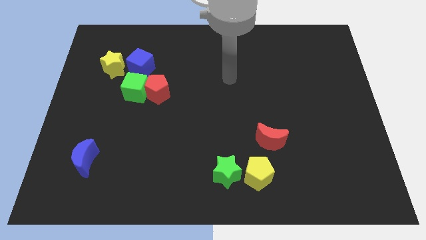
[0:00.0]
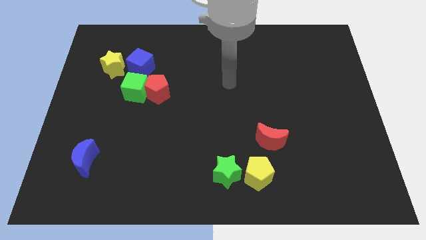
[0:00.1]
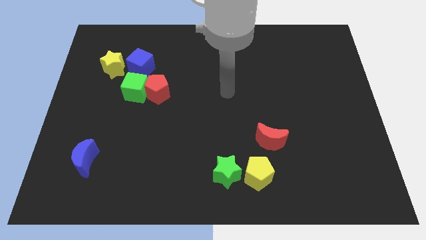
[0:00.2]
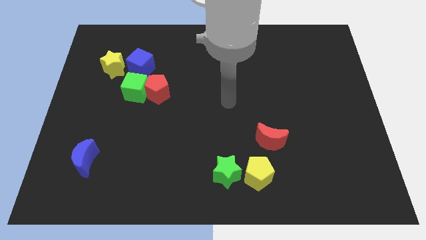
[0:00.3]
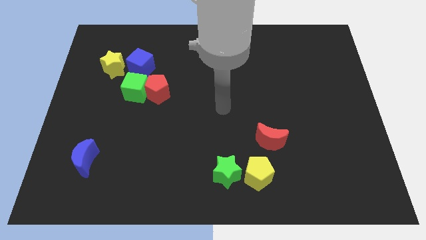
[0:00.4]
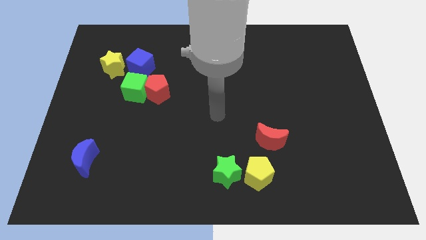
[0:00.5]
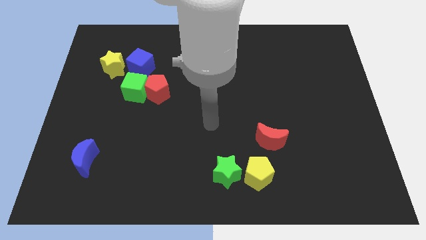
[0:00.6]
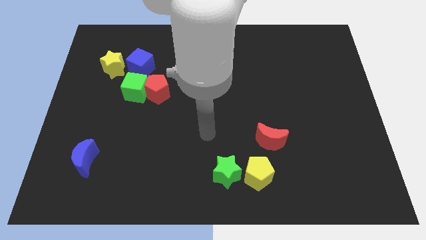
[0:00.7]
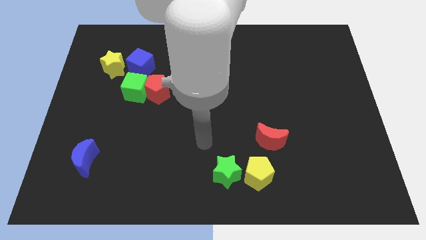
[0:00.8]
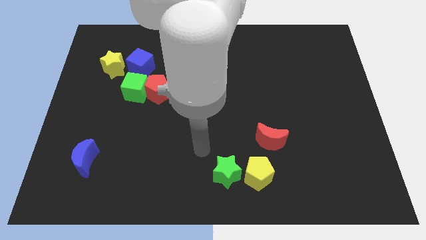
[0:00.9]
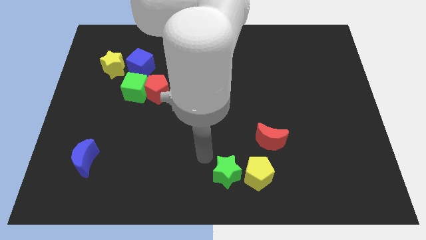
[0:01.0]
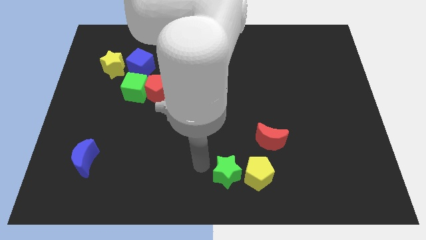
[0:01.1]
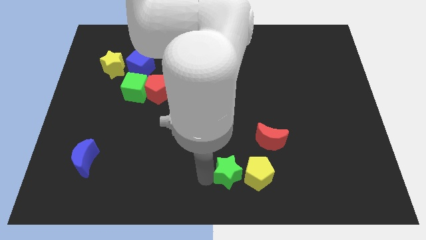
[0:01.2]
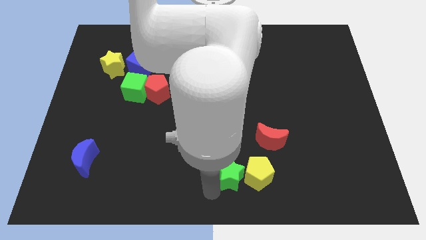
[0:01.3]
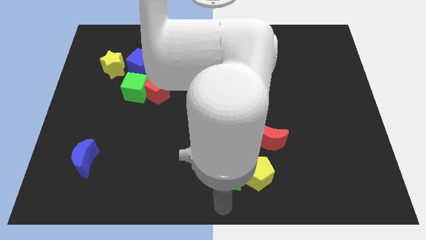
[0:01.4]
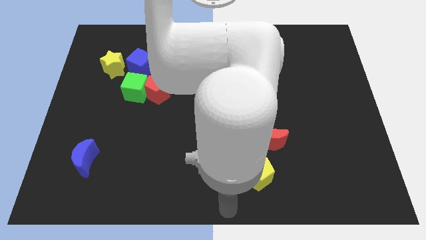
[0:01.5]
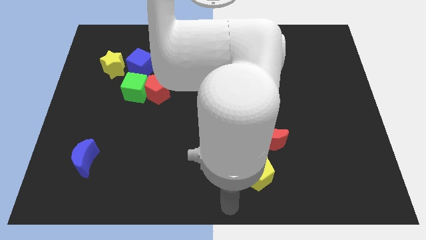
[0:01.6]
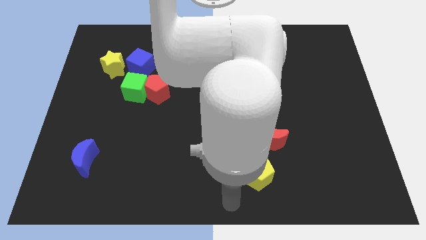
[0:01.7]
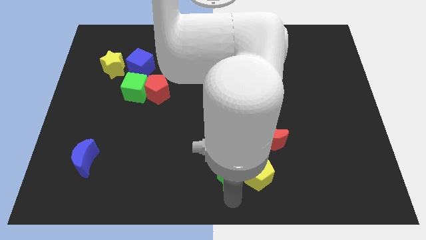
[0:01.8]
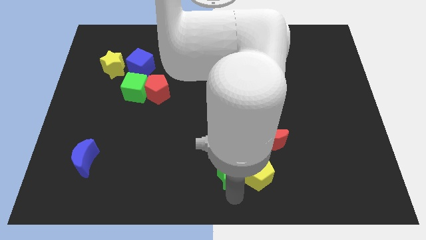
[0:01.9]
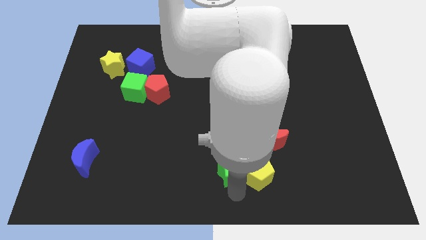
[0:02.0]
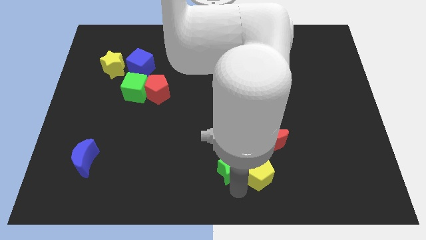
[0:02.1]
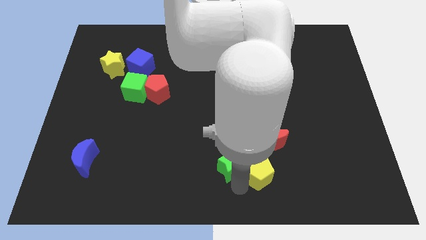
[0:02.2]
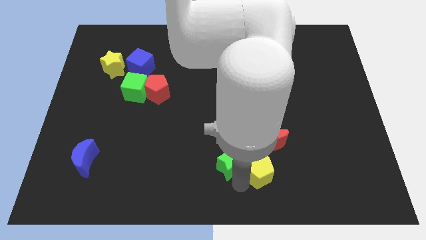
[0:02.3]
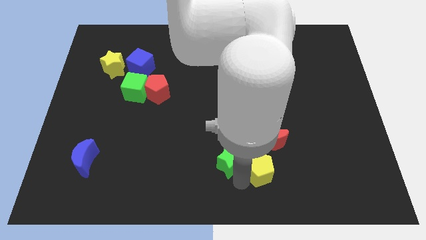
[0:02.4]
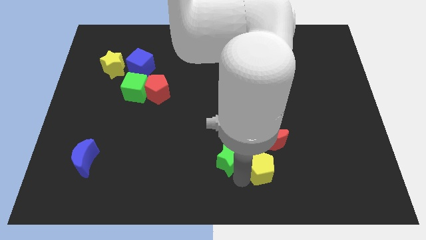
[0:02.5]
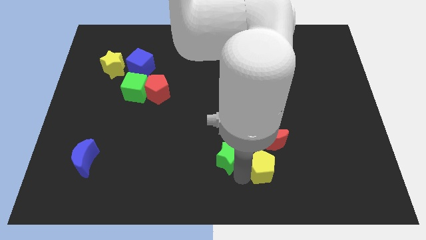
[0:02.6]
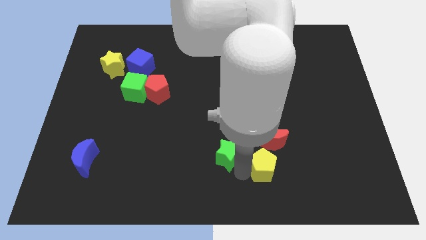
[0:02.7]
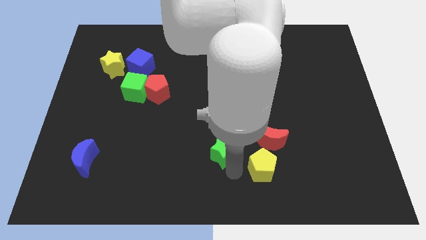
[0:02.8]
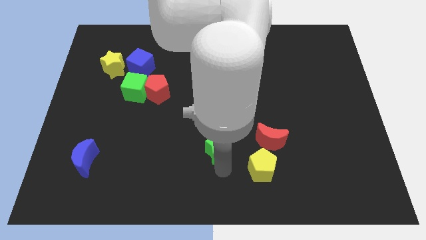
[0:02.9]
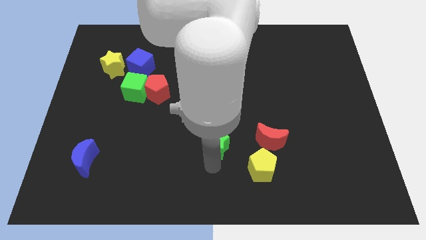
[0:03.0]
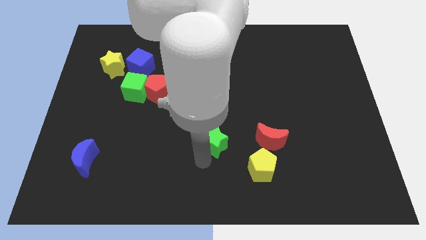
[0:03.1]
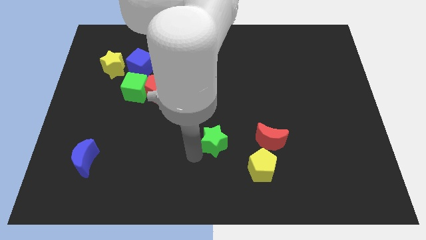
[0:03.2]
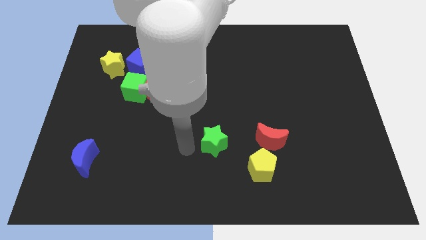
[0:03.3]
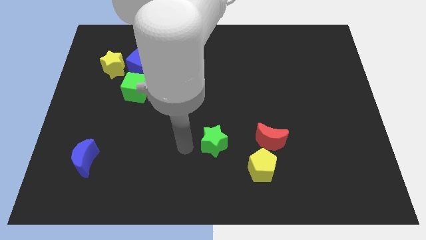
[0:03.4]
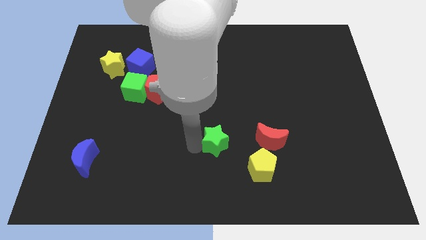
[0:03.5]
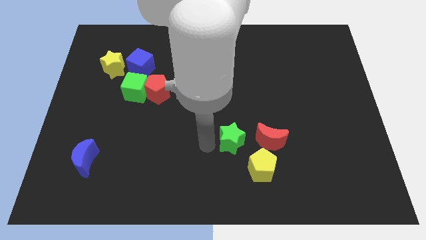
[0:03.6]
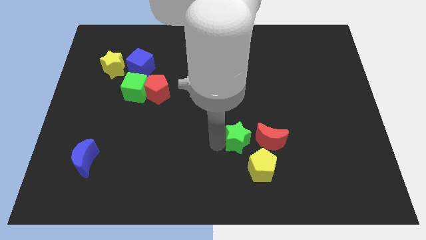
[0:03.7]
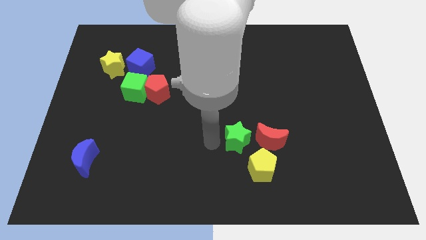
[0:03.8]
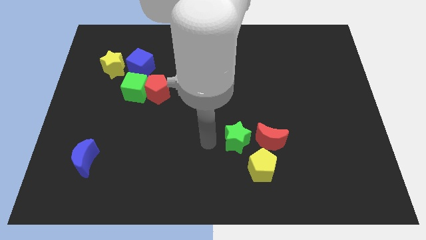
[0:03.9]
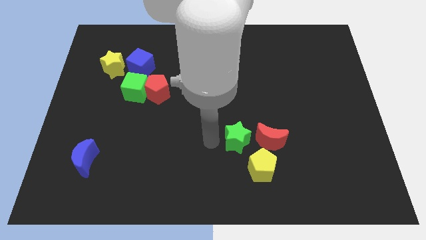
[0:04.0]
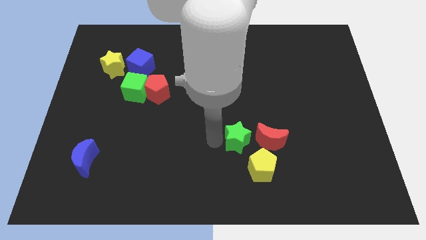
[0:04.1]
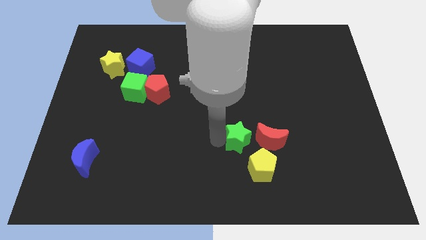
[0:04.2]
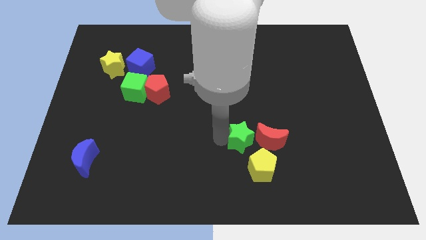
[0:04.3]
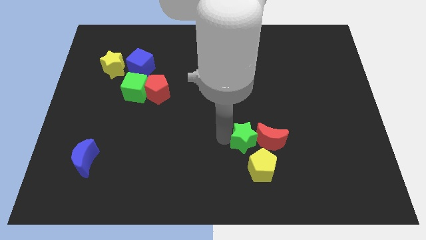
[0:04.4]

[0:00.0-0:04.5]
slide the green star close to the red moon

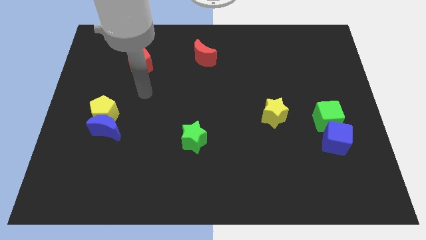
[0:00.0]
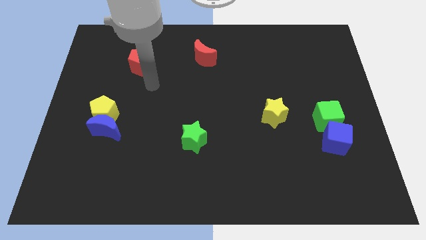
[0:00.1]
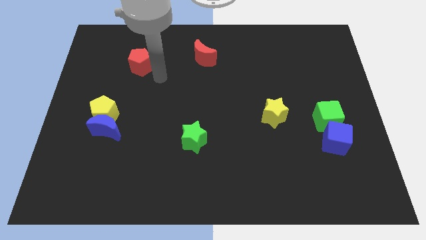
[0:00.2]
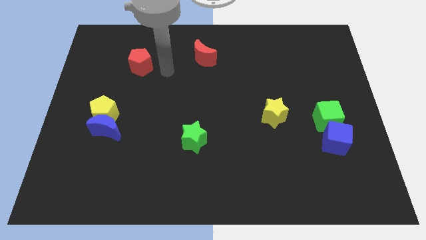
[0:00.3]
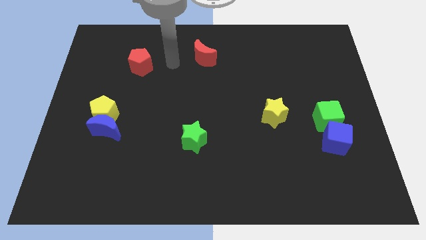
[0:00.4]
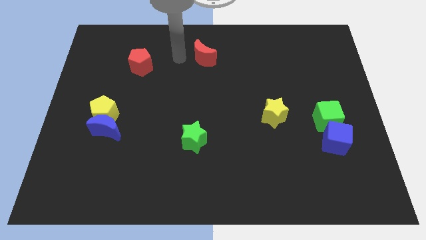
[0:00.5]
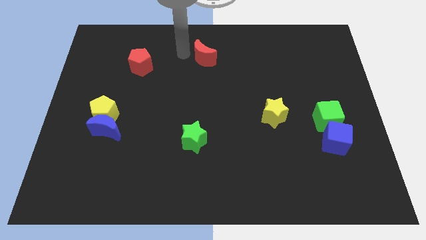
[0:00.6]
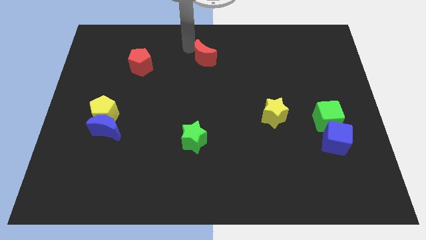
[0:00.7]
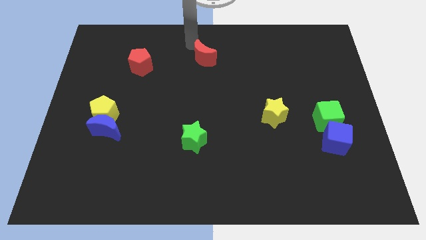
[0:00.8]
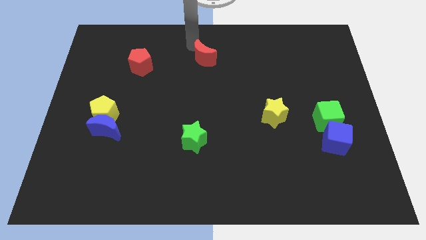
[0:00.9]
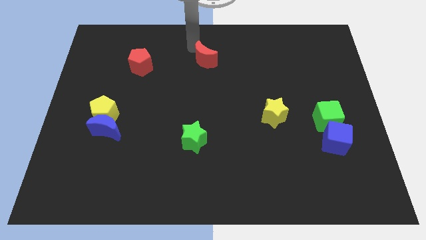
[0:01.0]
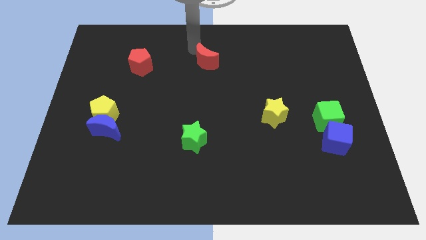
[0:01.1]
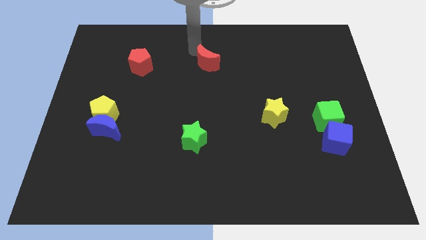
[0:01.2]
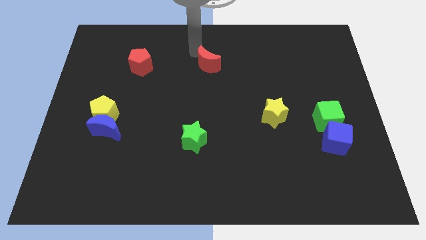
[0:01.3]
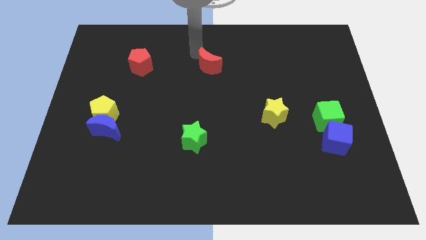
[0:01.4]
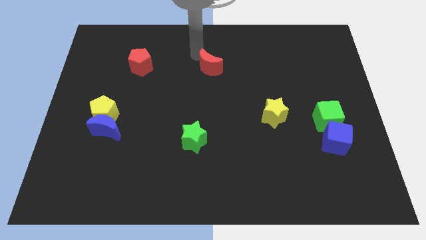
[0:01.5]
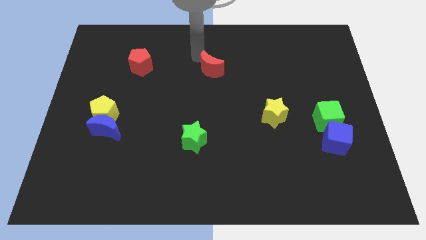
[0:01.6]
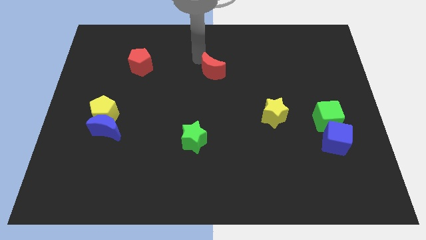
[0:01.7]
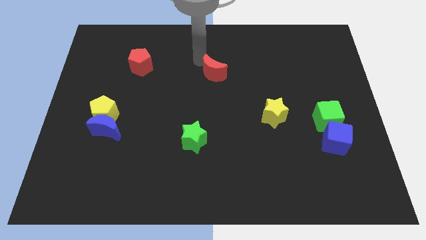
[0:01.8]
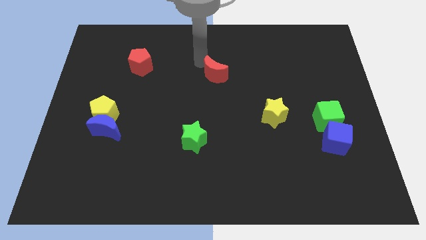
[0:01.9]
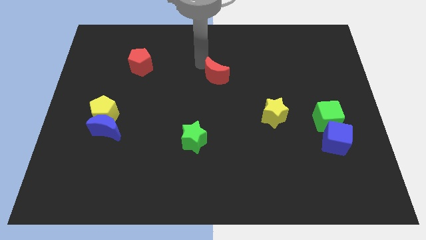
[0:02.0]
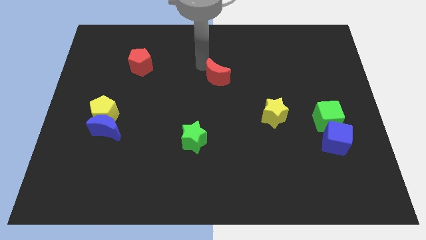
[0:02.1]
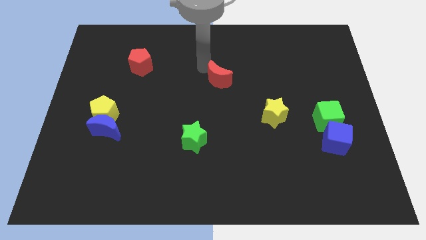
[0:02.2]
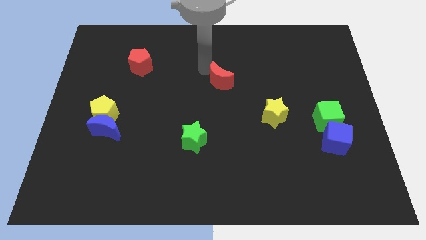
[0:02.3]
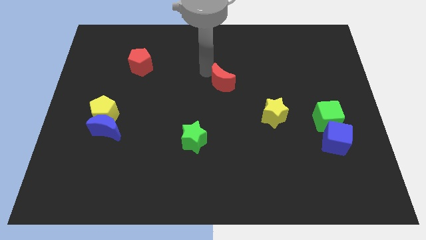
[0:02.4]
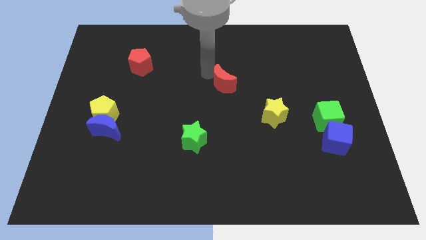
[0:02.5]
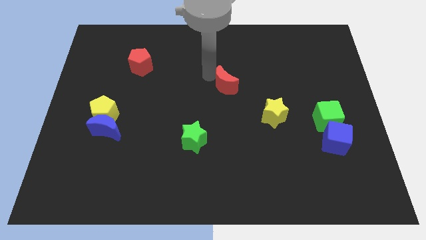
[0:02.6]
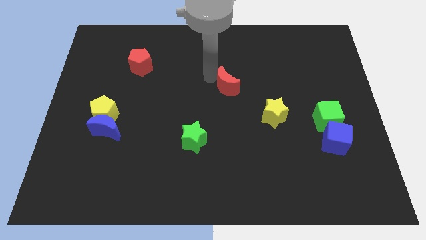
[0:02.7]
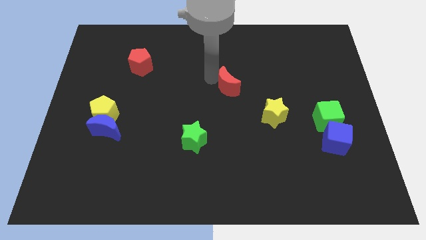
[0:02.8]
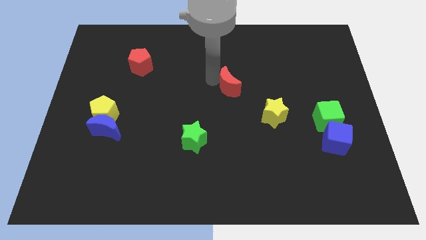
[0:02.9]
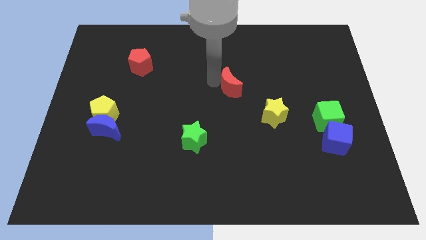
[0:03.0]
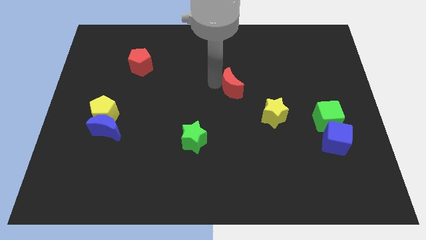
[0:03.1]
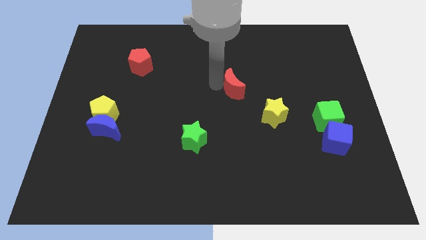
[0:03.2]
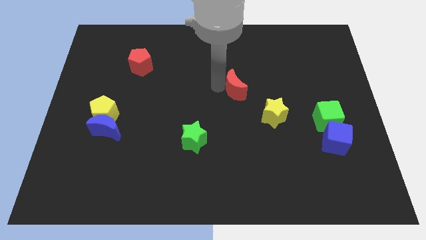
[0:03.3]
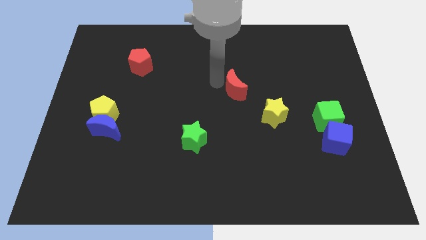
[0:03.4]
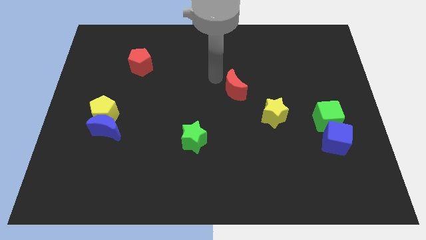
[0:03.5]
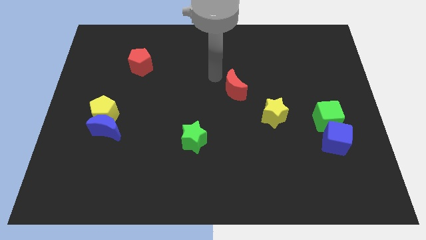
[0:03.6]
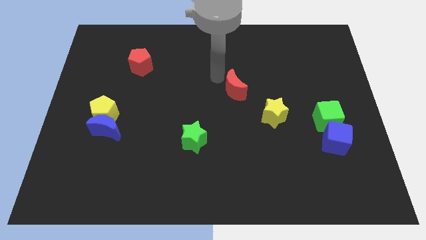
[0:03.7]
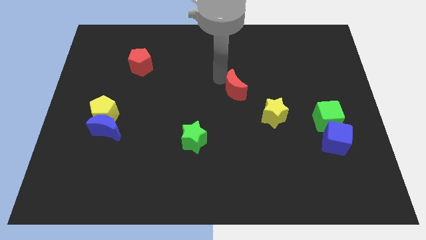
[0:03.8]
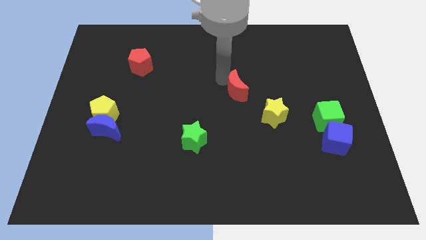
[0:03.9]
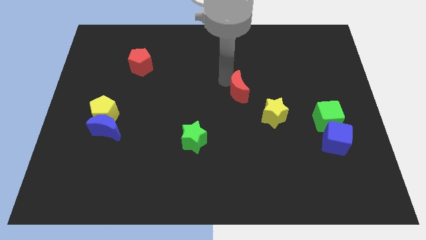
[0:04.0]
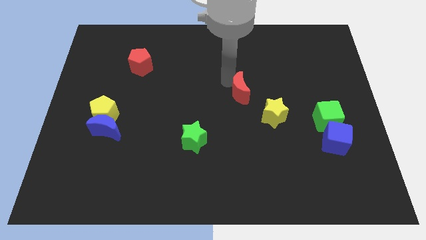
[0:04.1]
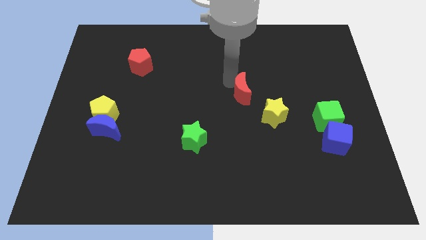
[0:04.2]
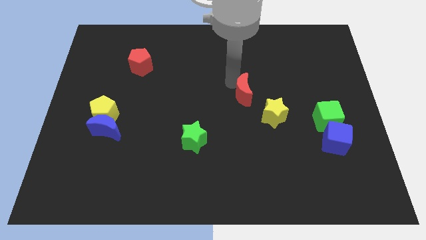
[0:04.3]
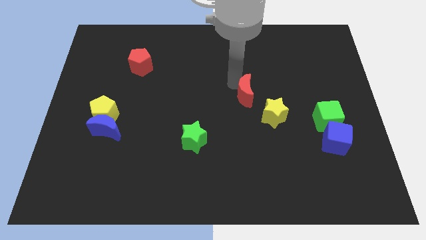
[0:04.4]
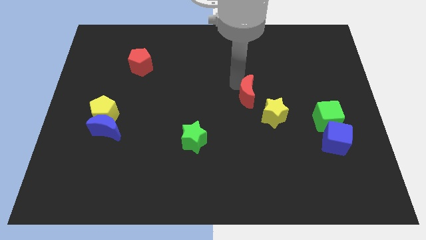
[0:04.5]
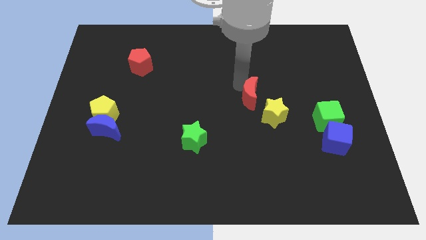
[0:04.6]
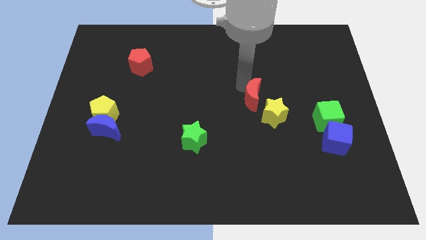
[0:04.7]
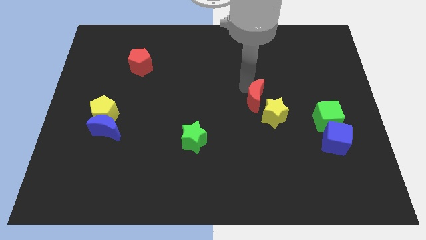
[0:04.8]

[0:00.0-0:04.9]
move the red moon towards the yellow star
